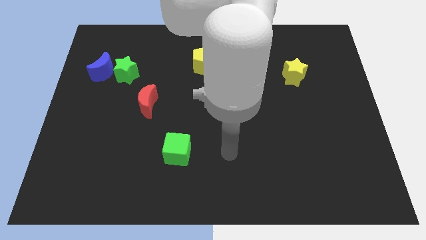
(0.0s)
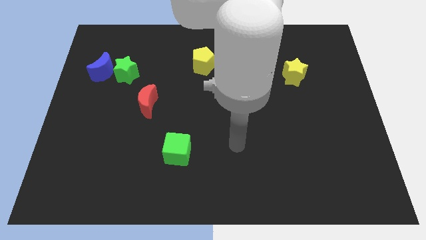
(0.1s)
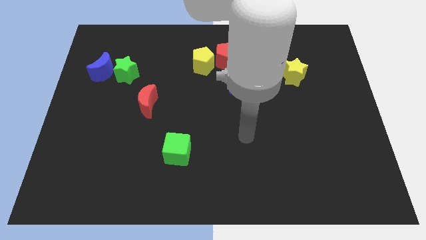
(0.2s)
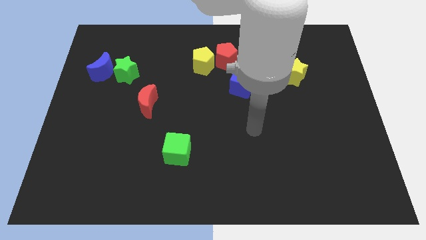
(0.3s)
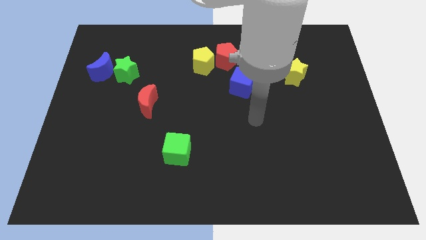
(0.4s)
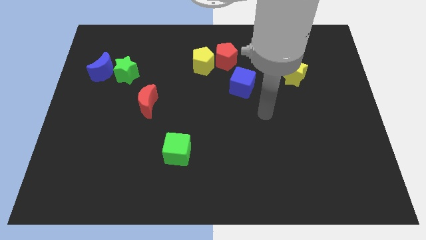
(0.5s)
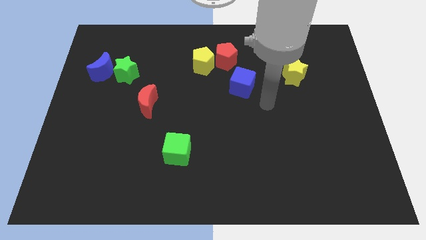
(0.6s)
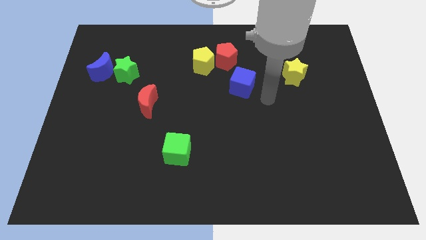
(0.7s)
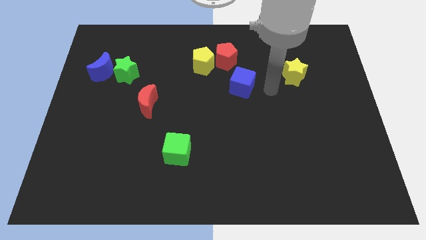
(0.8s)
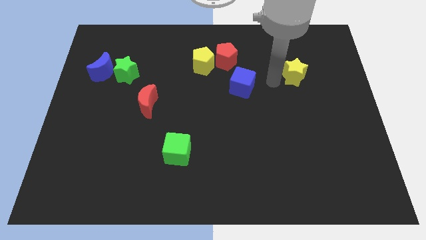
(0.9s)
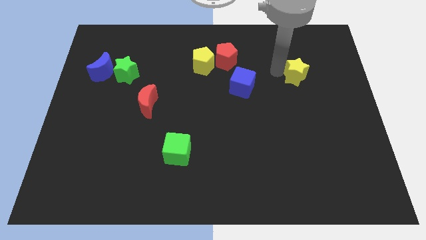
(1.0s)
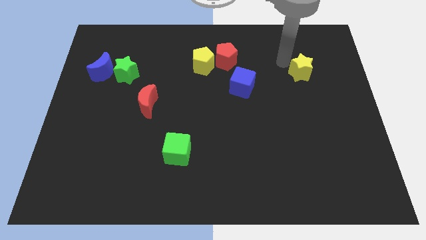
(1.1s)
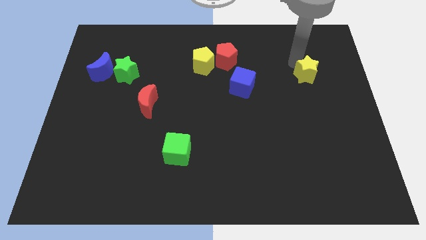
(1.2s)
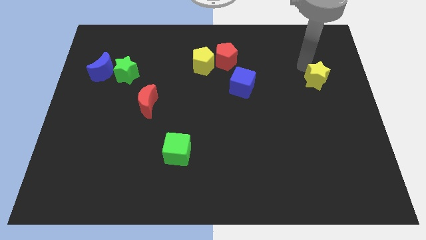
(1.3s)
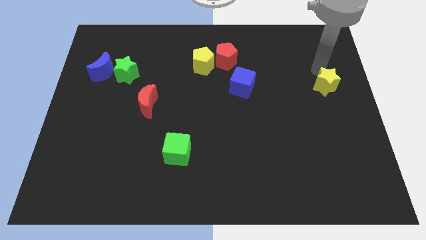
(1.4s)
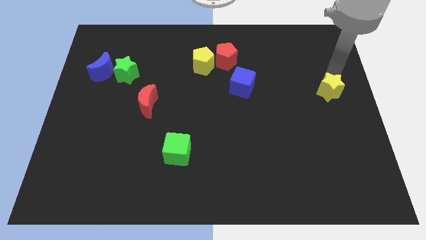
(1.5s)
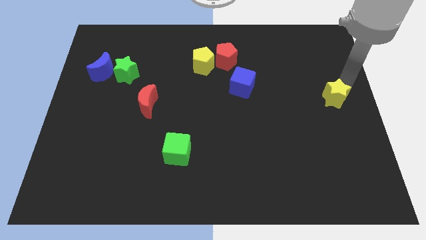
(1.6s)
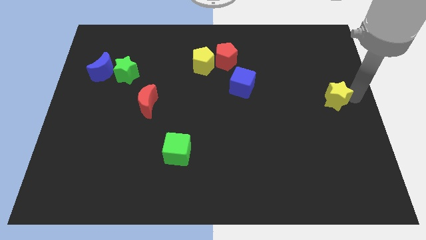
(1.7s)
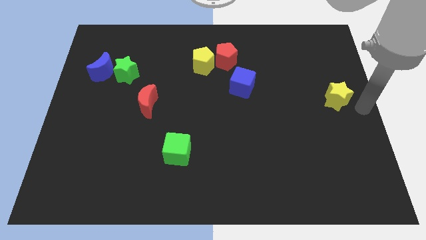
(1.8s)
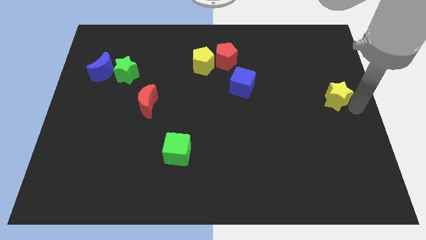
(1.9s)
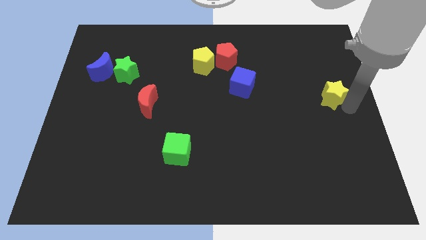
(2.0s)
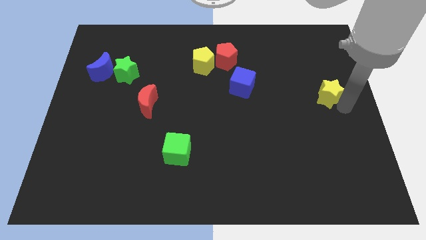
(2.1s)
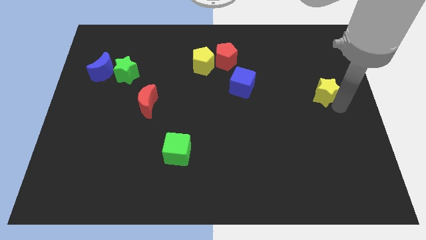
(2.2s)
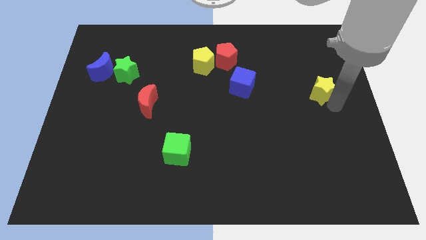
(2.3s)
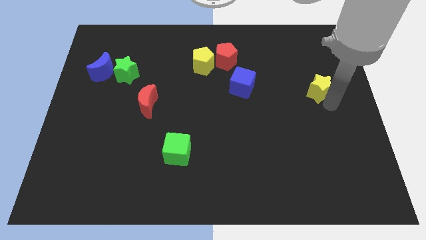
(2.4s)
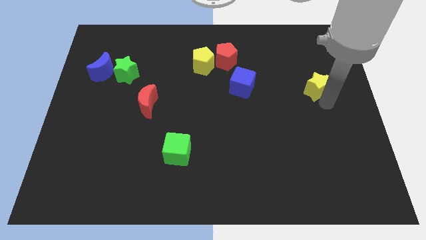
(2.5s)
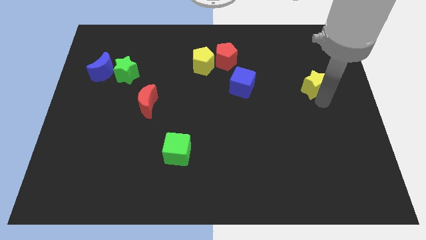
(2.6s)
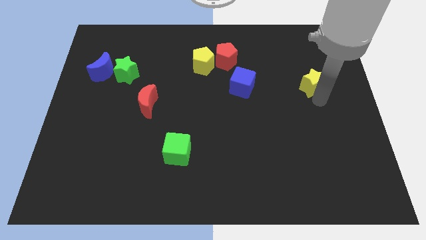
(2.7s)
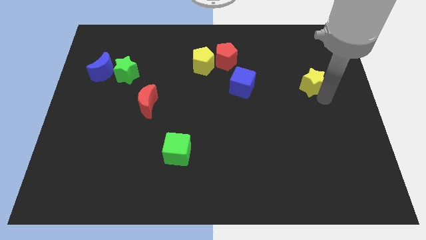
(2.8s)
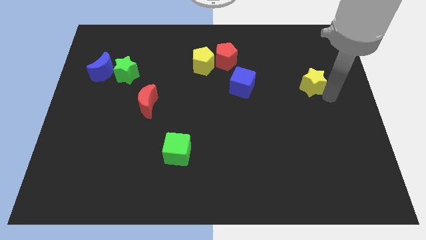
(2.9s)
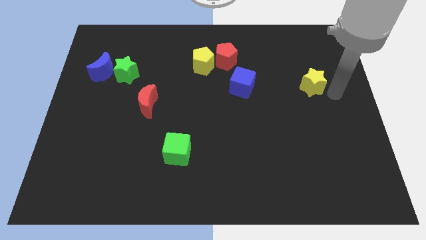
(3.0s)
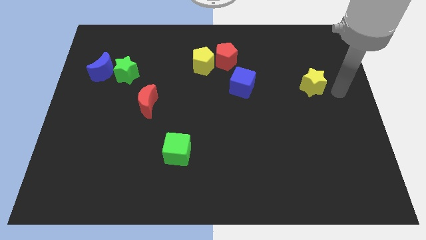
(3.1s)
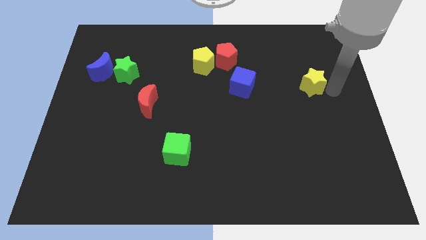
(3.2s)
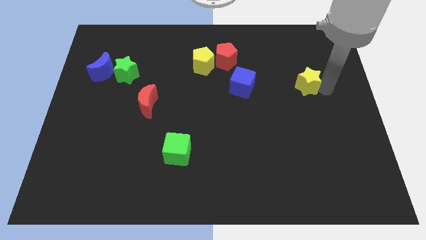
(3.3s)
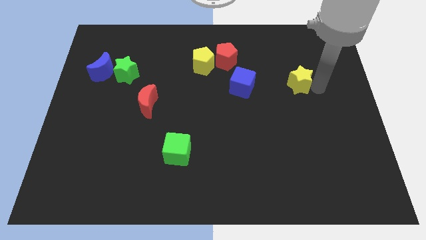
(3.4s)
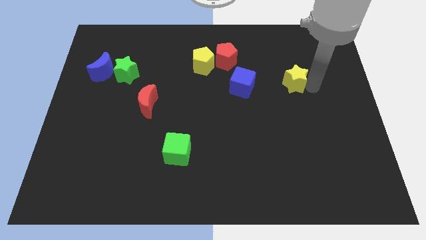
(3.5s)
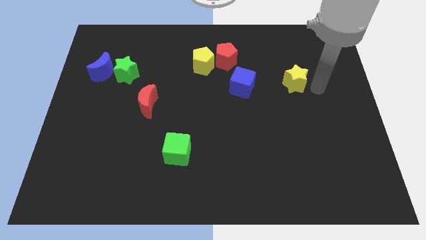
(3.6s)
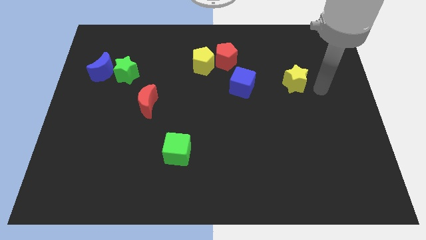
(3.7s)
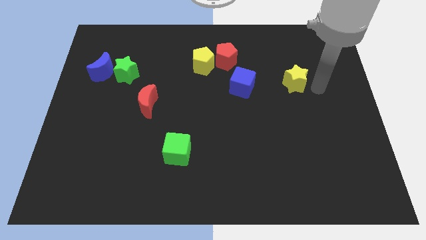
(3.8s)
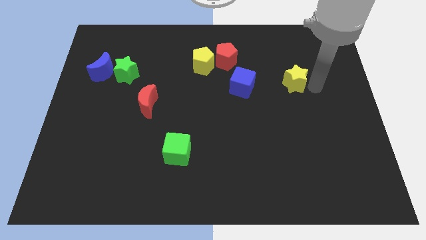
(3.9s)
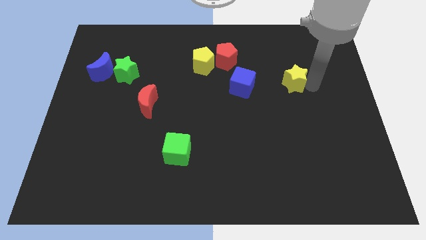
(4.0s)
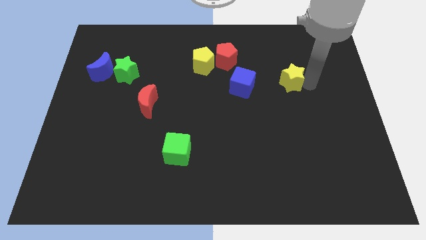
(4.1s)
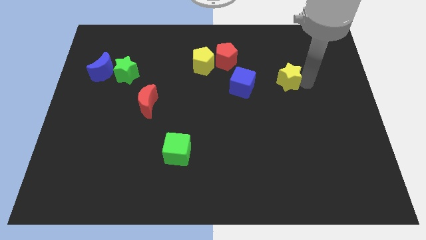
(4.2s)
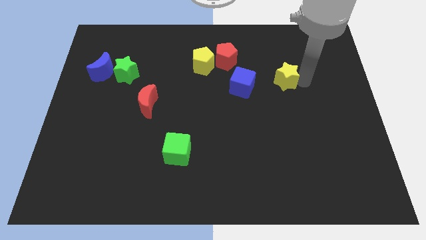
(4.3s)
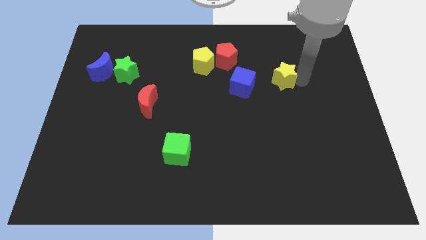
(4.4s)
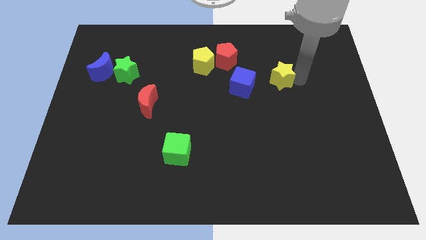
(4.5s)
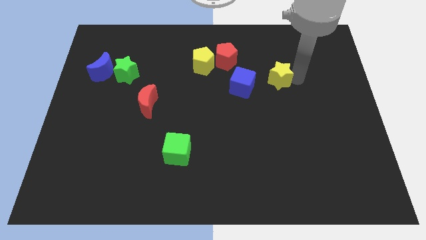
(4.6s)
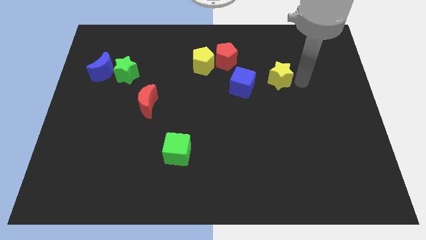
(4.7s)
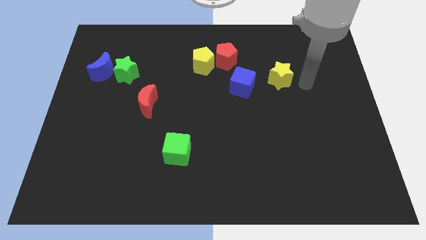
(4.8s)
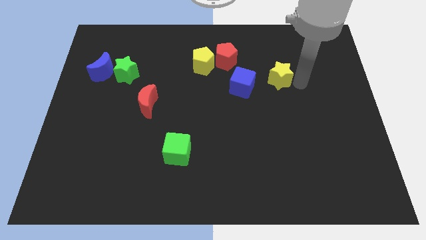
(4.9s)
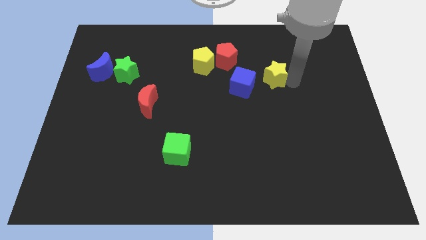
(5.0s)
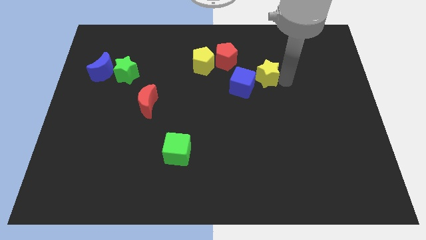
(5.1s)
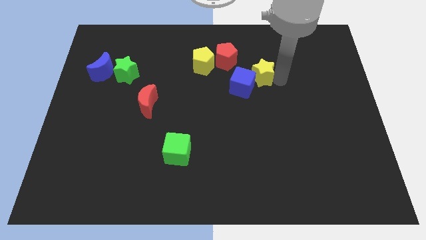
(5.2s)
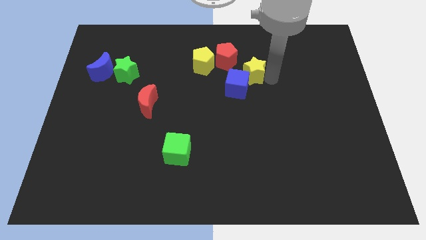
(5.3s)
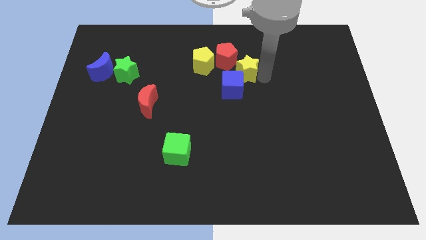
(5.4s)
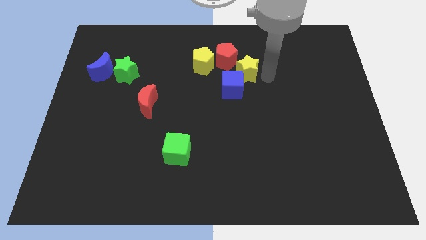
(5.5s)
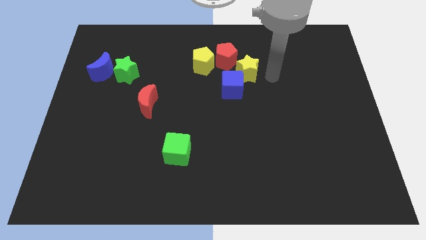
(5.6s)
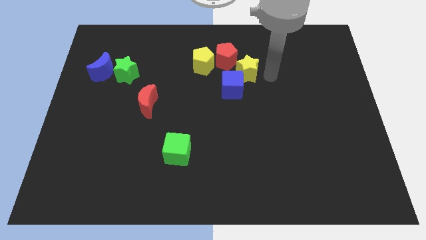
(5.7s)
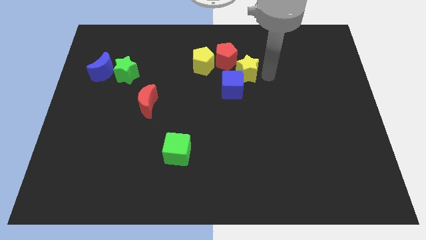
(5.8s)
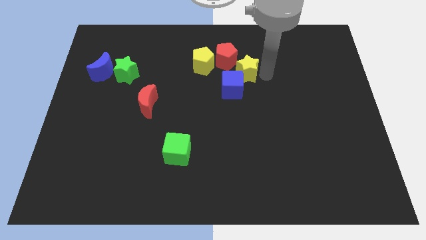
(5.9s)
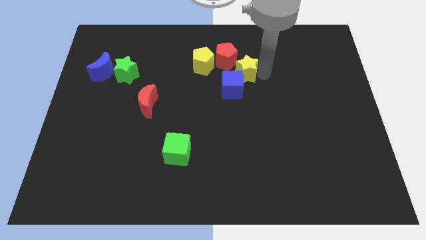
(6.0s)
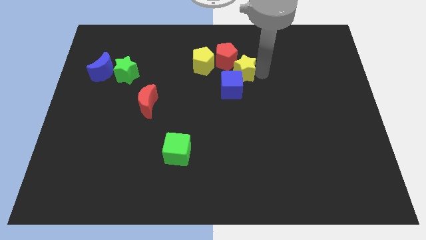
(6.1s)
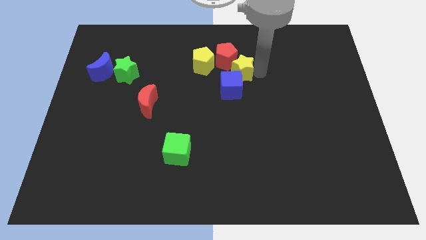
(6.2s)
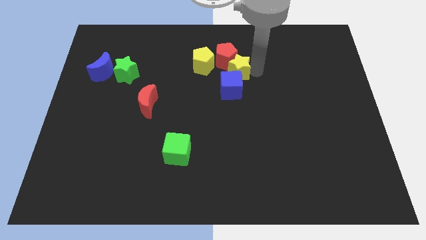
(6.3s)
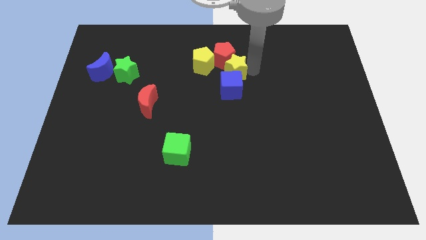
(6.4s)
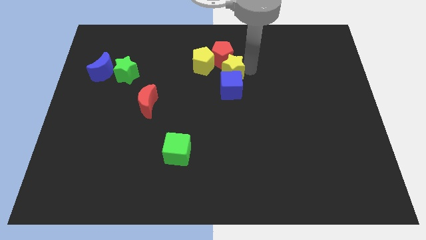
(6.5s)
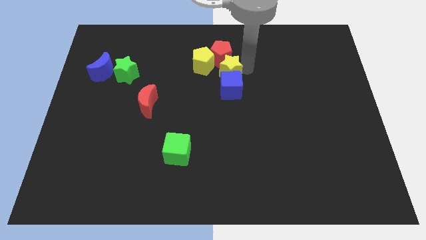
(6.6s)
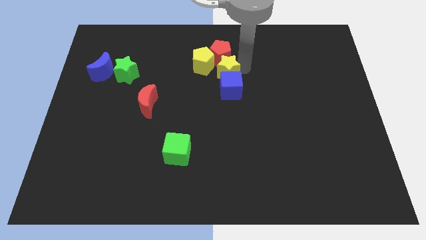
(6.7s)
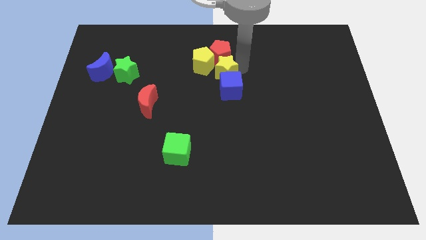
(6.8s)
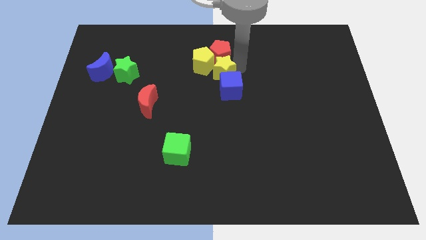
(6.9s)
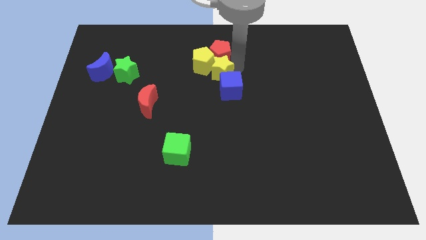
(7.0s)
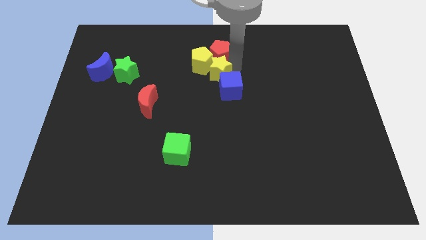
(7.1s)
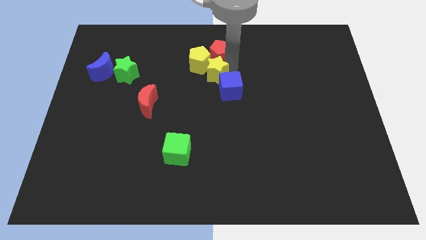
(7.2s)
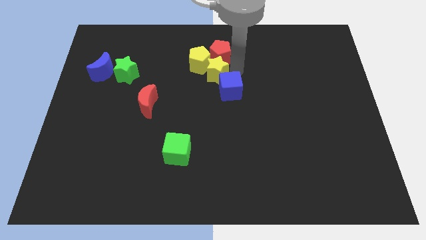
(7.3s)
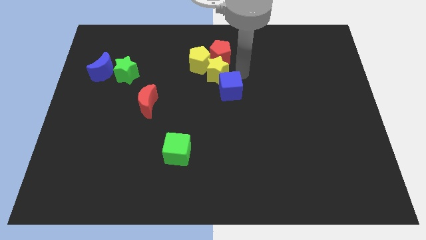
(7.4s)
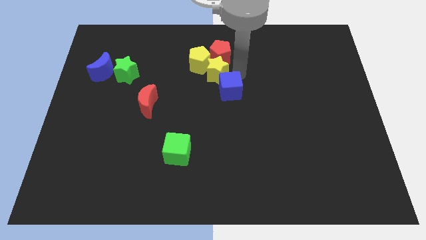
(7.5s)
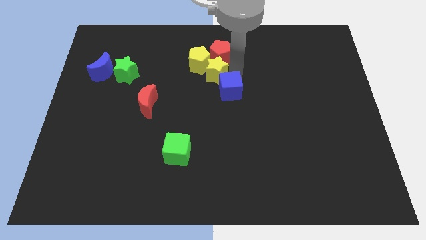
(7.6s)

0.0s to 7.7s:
push the yellow star to the left

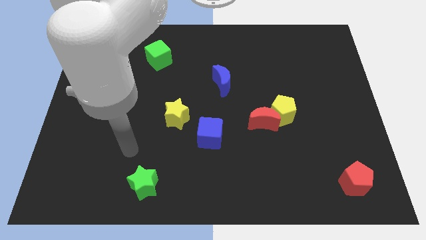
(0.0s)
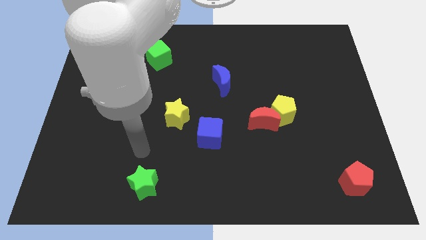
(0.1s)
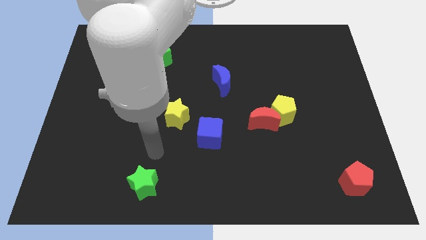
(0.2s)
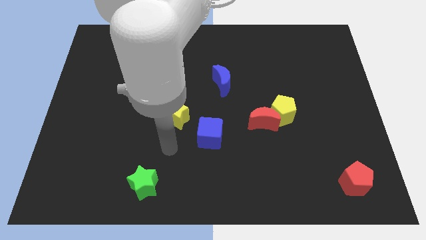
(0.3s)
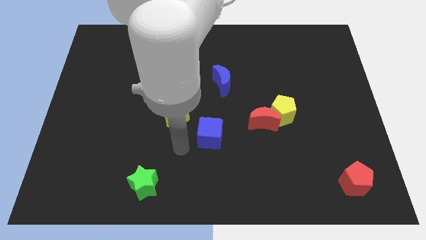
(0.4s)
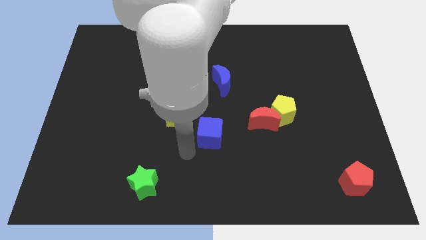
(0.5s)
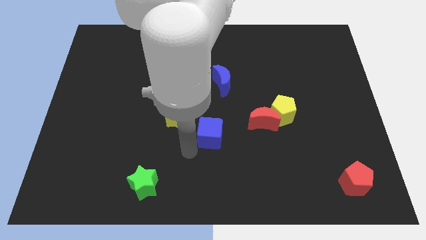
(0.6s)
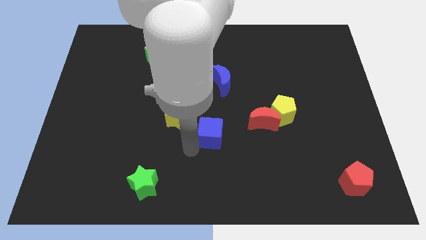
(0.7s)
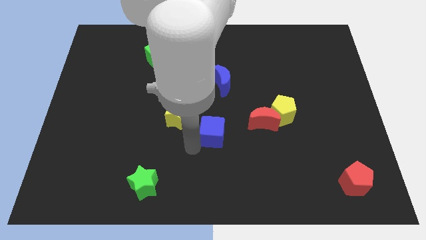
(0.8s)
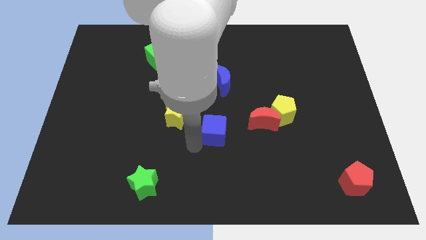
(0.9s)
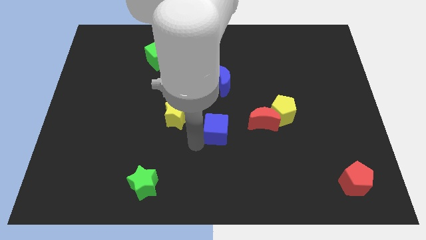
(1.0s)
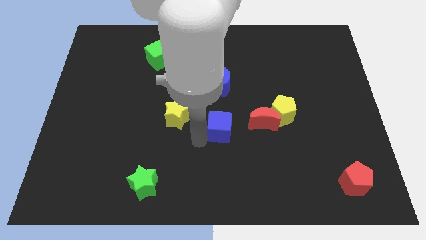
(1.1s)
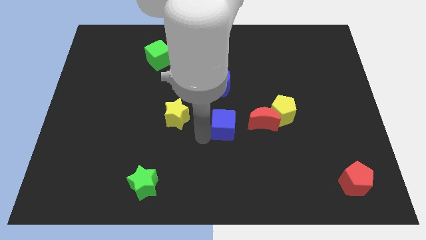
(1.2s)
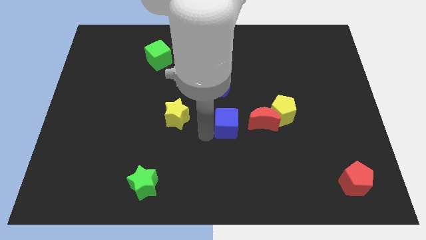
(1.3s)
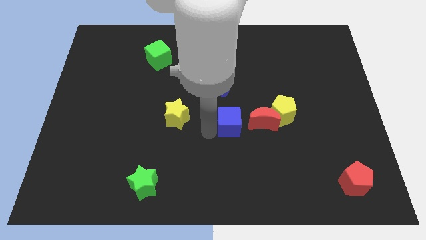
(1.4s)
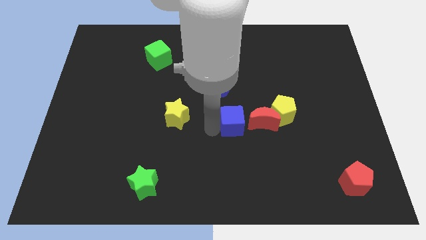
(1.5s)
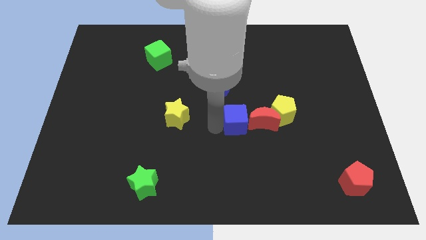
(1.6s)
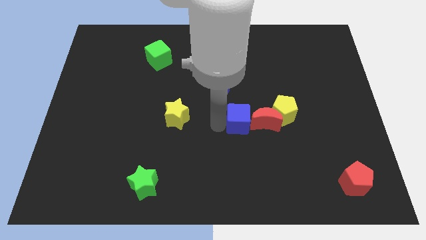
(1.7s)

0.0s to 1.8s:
slightly move the blue cube upwards and then right
